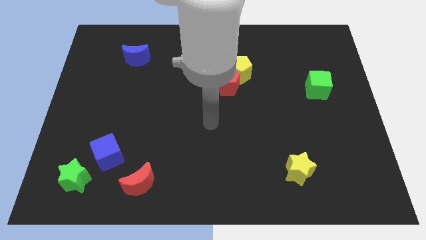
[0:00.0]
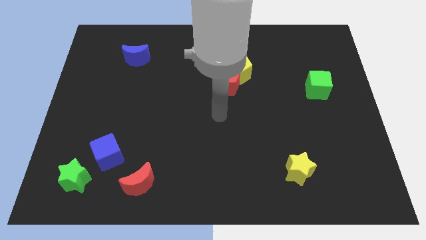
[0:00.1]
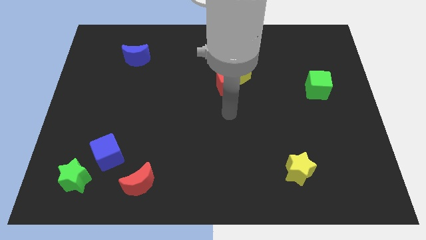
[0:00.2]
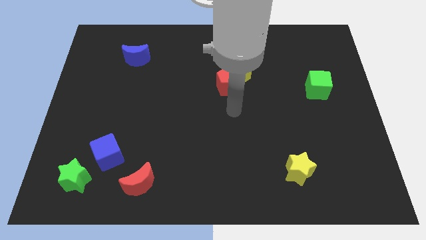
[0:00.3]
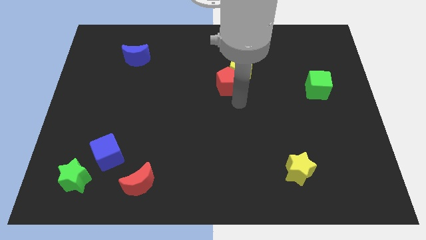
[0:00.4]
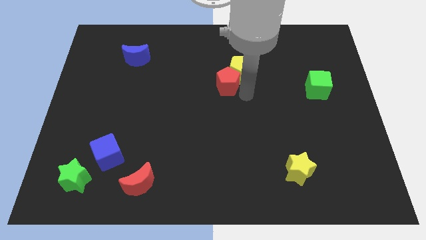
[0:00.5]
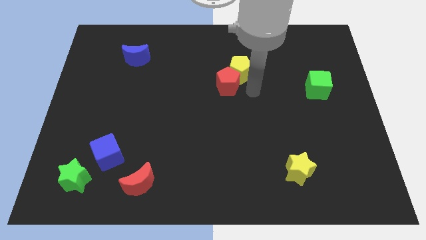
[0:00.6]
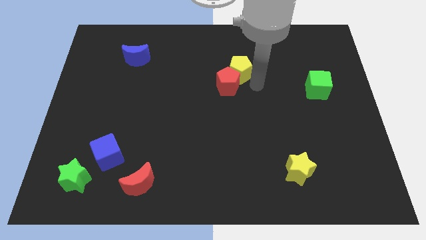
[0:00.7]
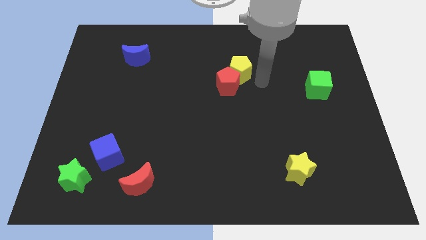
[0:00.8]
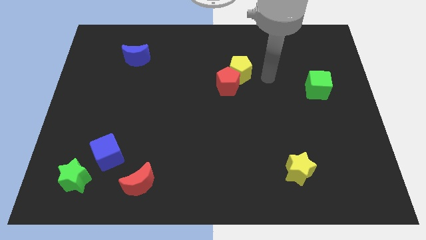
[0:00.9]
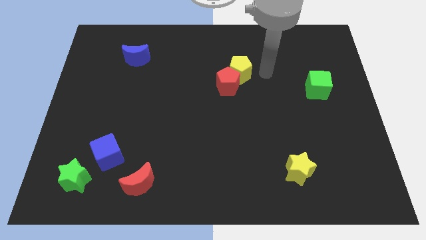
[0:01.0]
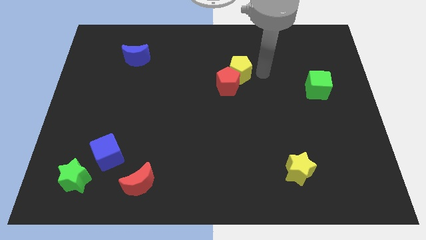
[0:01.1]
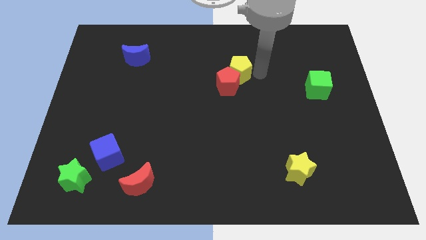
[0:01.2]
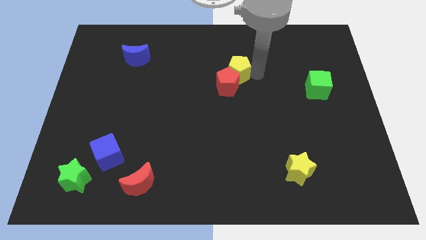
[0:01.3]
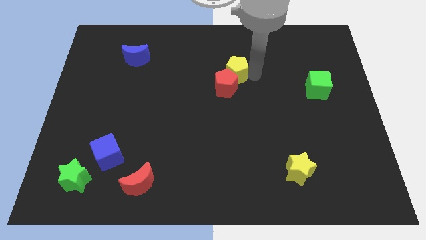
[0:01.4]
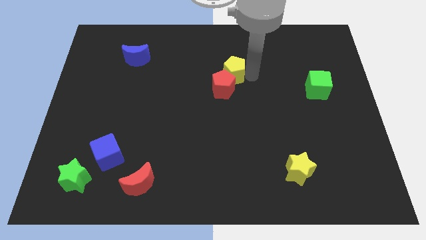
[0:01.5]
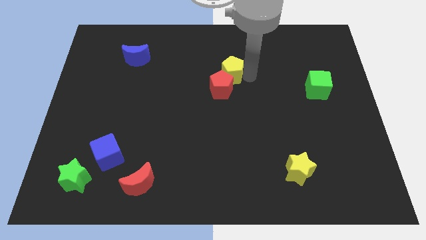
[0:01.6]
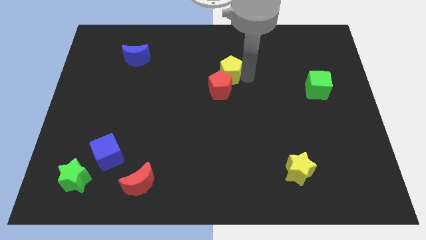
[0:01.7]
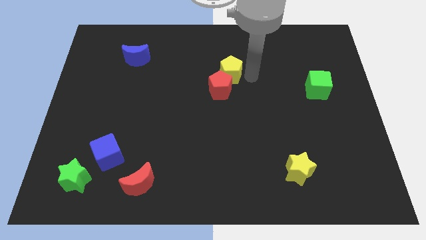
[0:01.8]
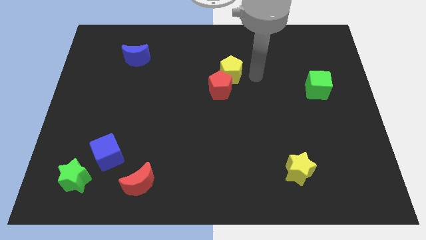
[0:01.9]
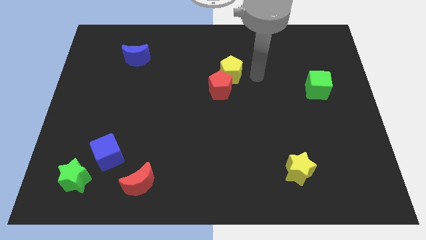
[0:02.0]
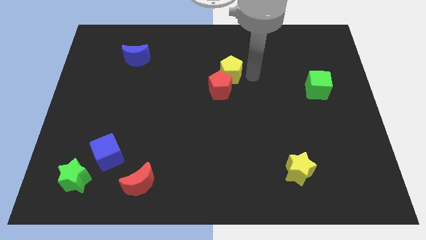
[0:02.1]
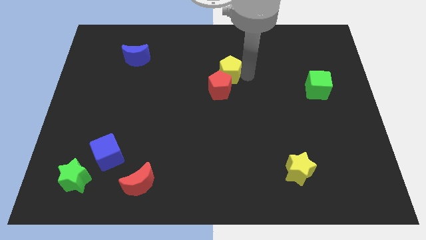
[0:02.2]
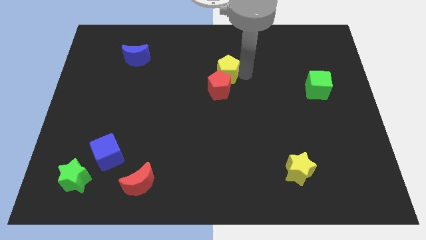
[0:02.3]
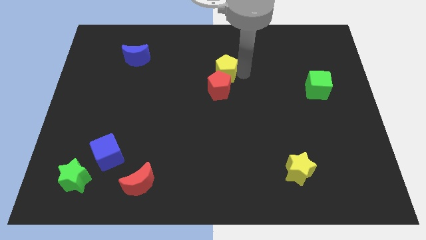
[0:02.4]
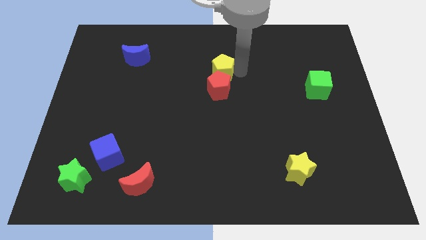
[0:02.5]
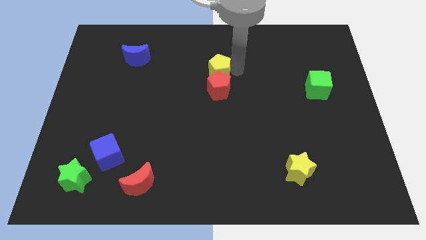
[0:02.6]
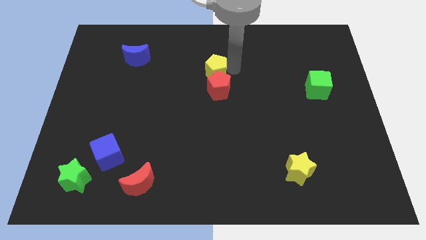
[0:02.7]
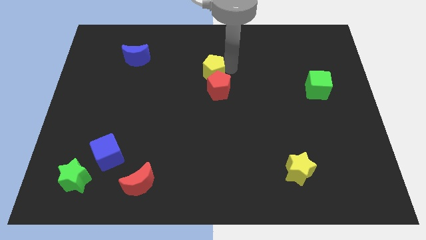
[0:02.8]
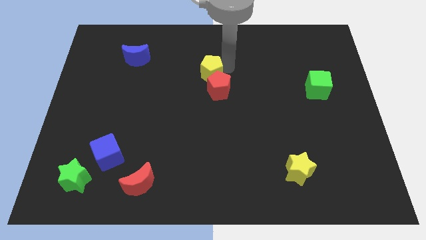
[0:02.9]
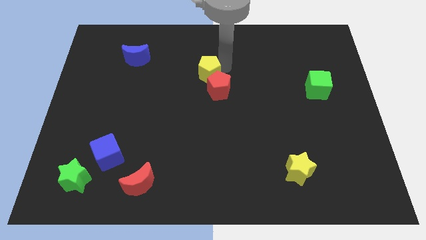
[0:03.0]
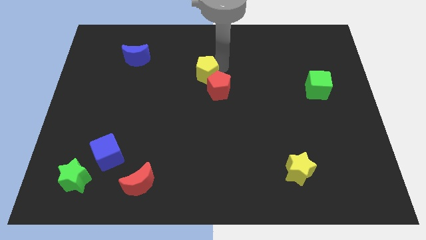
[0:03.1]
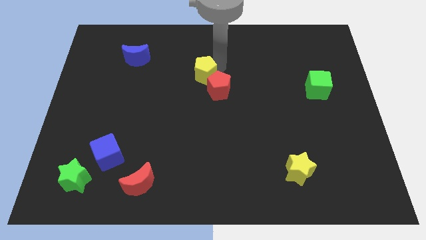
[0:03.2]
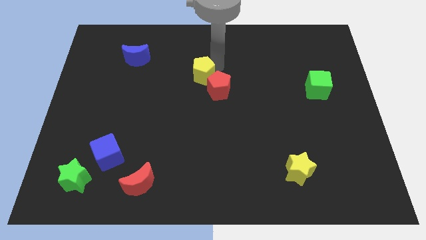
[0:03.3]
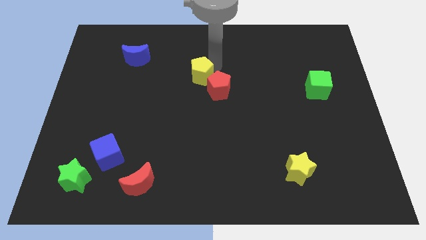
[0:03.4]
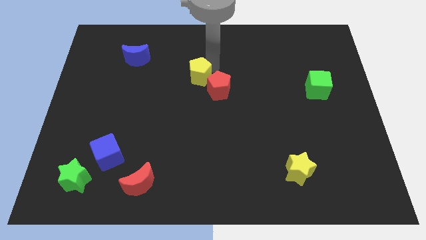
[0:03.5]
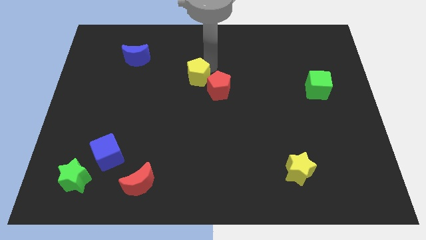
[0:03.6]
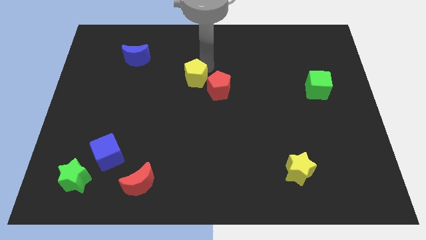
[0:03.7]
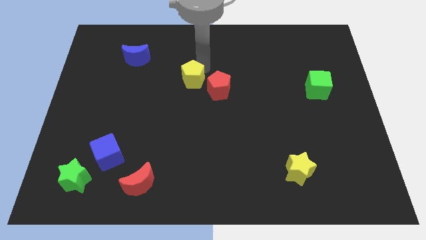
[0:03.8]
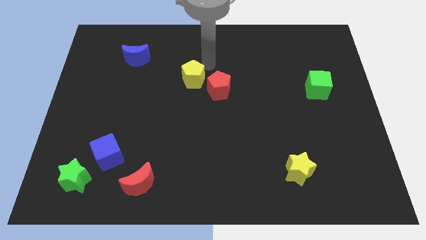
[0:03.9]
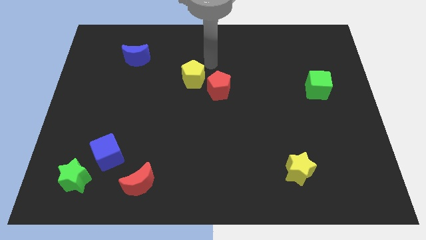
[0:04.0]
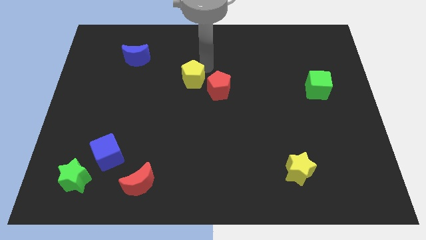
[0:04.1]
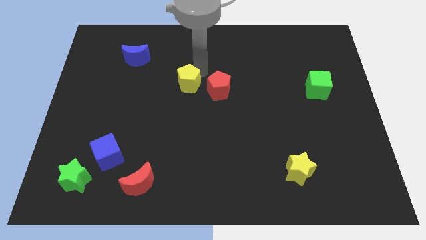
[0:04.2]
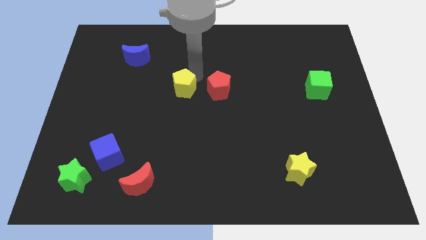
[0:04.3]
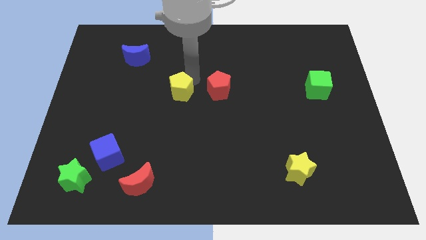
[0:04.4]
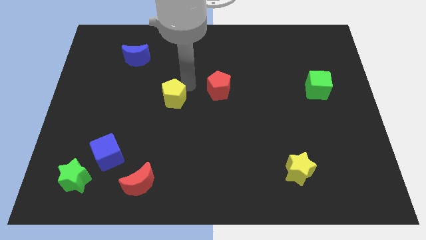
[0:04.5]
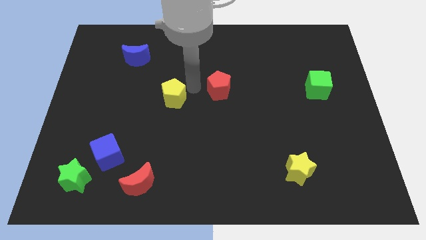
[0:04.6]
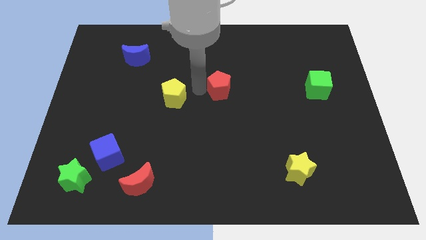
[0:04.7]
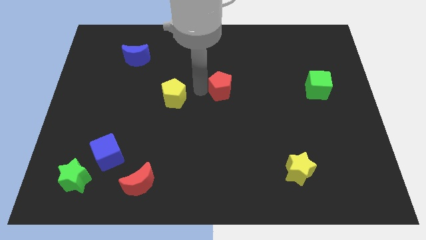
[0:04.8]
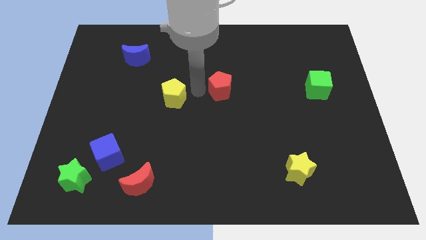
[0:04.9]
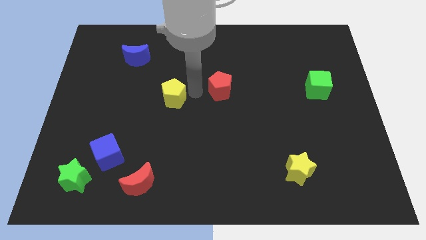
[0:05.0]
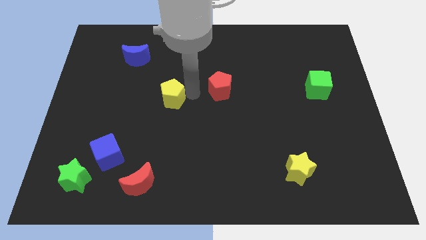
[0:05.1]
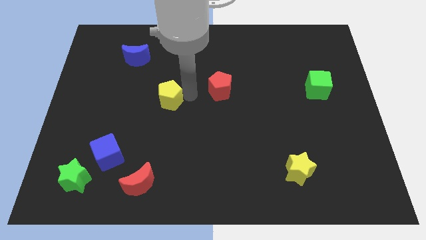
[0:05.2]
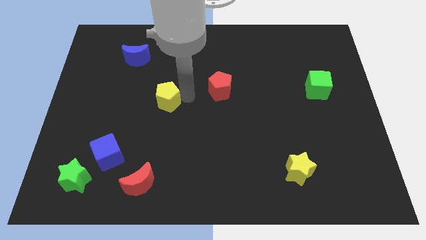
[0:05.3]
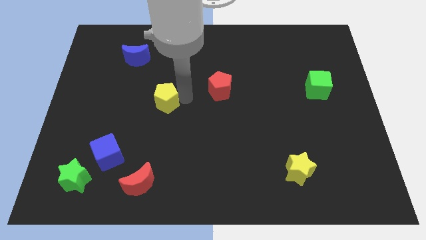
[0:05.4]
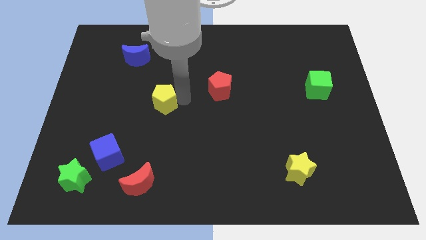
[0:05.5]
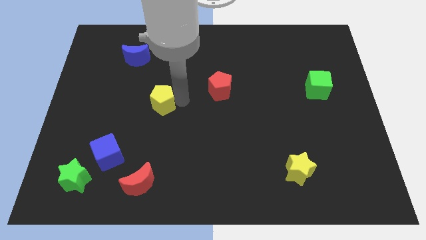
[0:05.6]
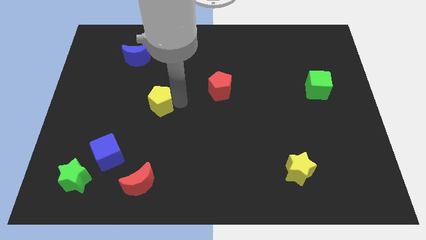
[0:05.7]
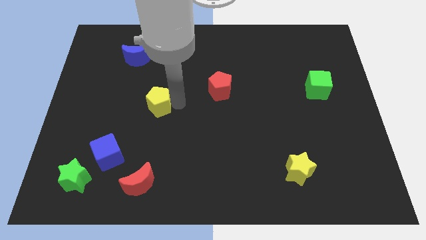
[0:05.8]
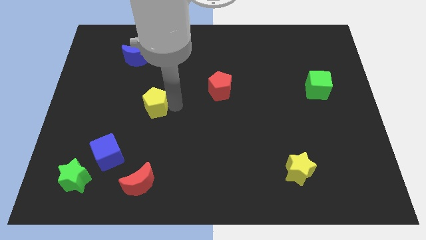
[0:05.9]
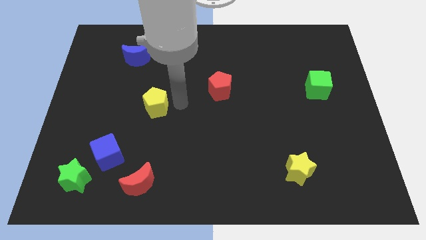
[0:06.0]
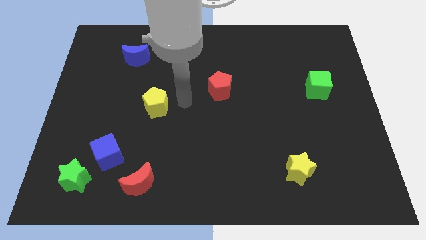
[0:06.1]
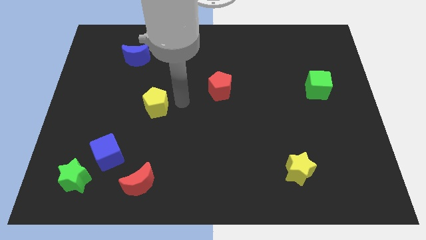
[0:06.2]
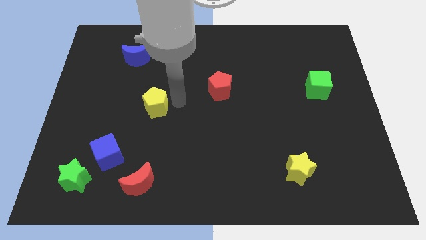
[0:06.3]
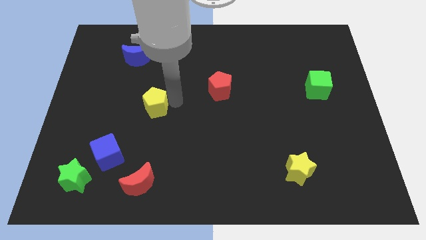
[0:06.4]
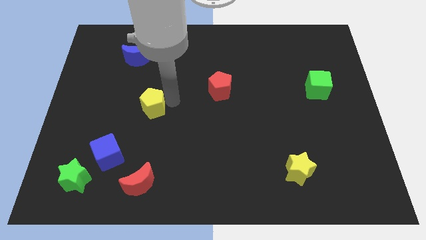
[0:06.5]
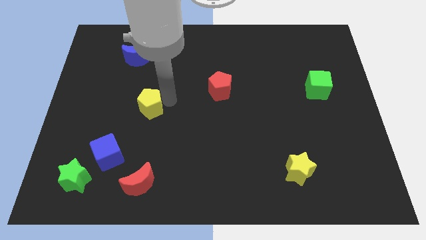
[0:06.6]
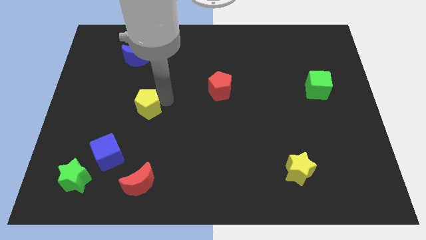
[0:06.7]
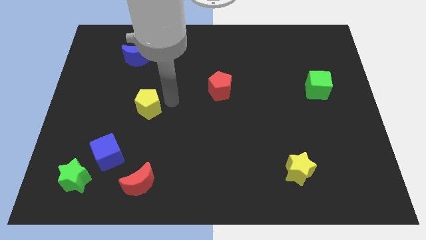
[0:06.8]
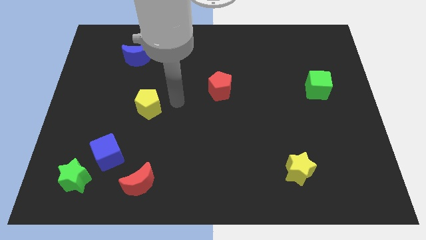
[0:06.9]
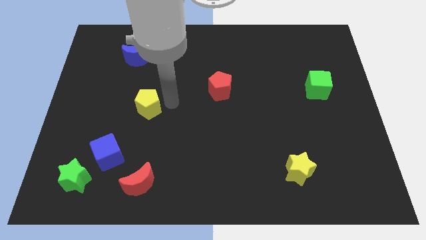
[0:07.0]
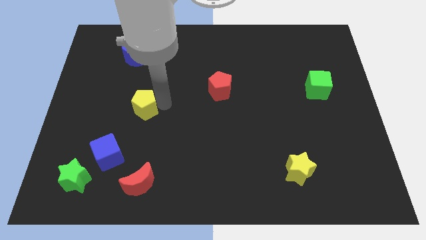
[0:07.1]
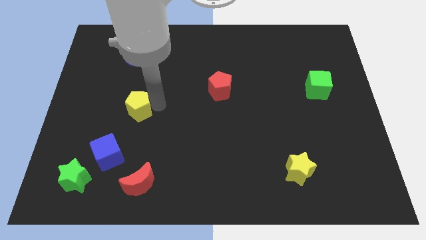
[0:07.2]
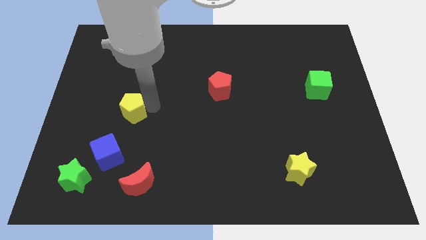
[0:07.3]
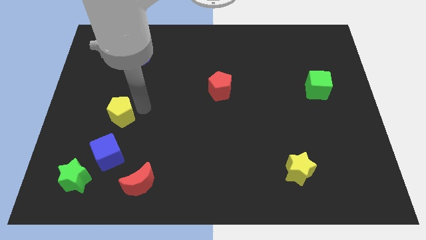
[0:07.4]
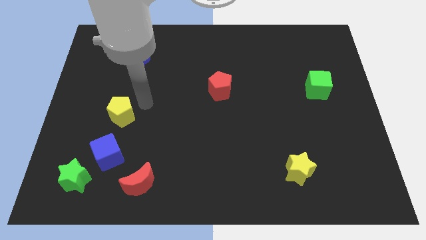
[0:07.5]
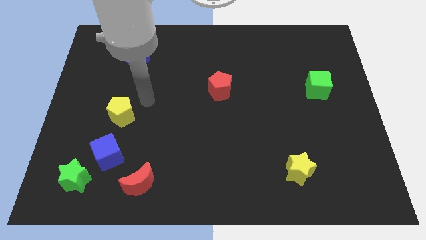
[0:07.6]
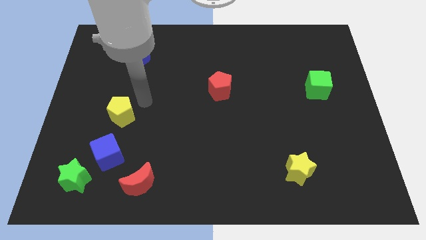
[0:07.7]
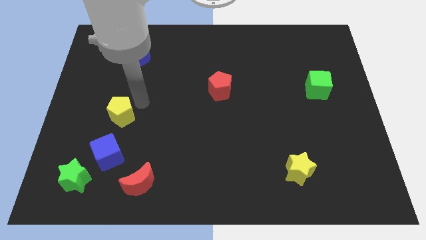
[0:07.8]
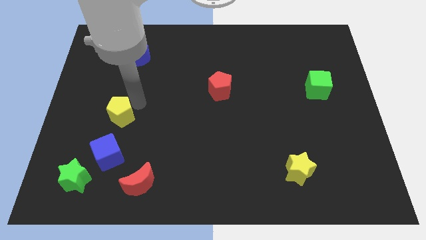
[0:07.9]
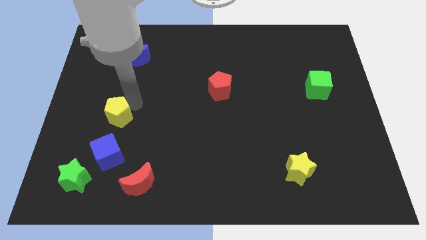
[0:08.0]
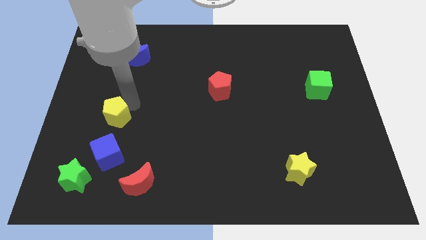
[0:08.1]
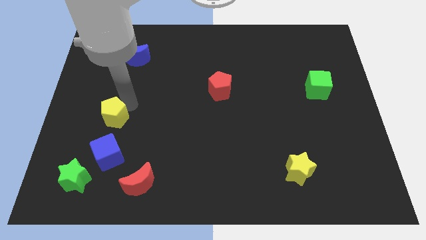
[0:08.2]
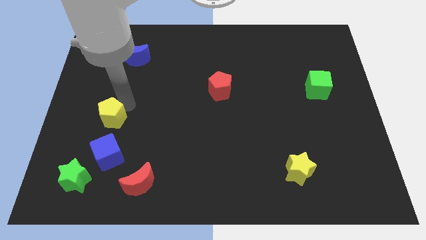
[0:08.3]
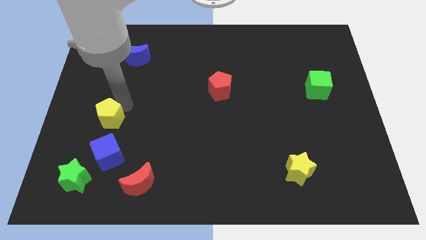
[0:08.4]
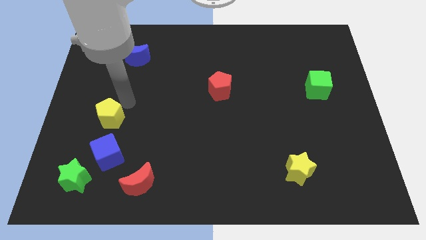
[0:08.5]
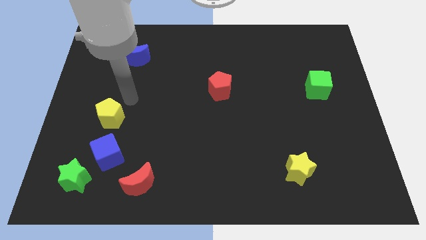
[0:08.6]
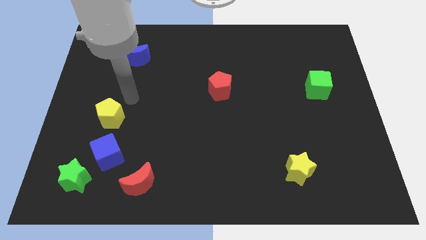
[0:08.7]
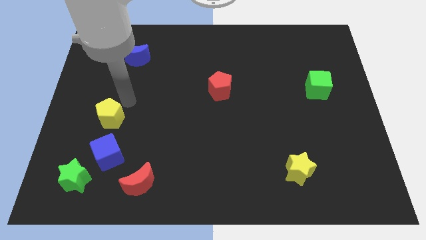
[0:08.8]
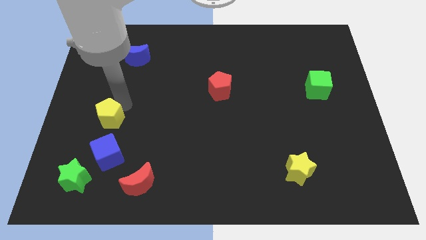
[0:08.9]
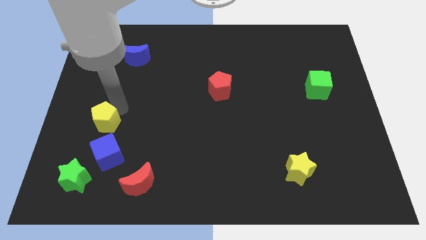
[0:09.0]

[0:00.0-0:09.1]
slide the yellow pentagon to the top of the green star
